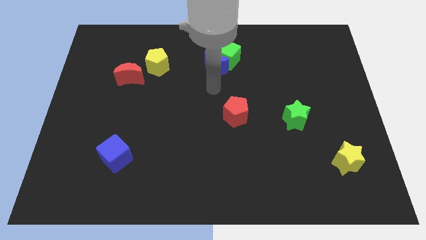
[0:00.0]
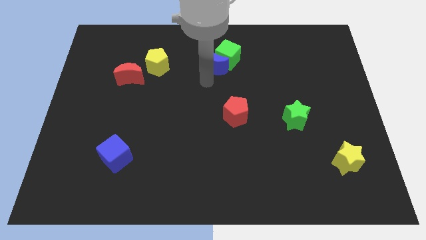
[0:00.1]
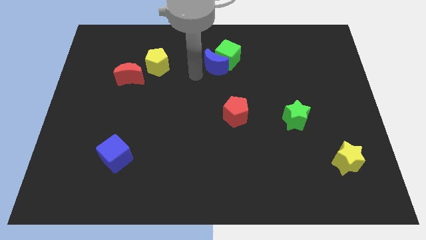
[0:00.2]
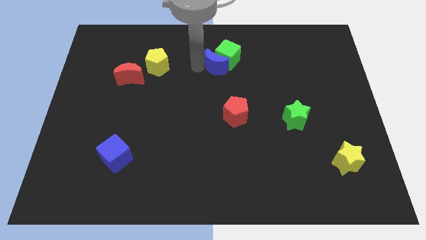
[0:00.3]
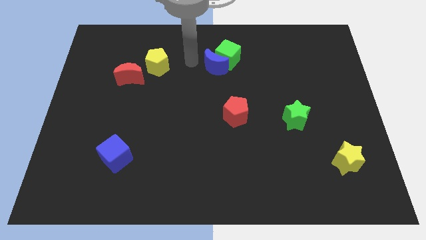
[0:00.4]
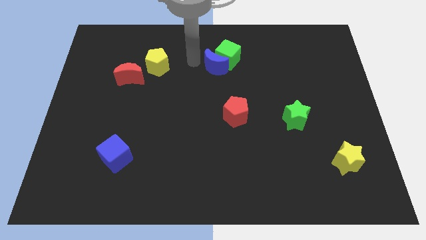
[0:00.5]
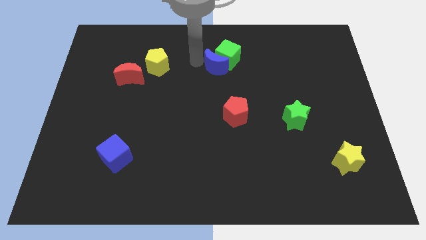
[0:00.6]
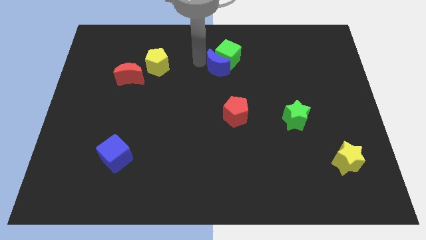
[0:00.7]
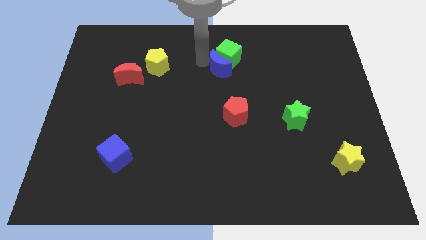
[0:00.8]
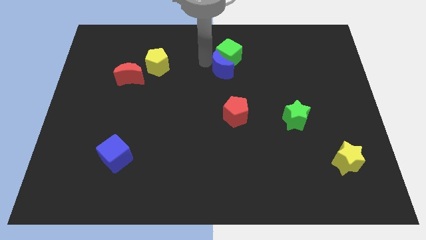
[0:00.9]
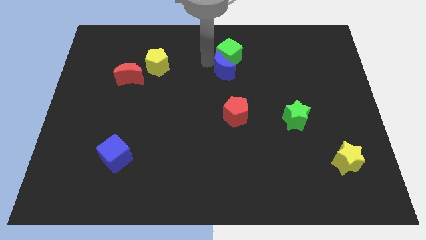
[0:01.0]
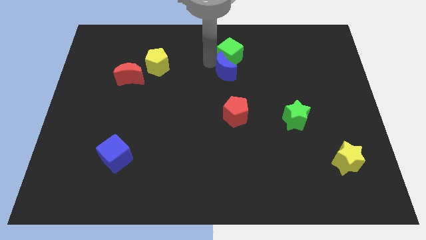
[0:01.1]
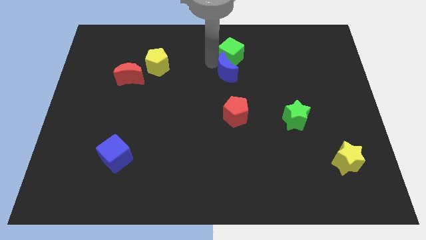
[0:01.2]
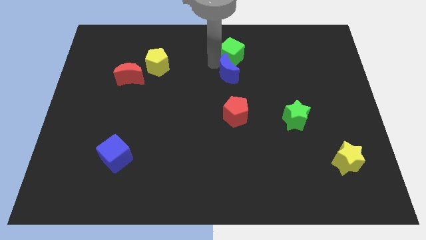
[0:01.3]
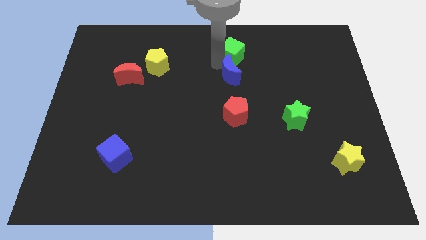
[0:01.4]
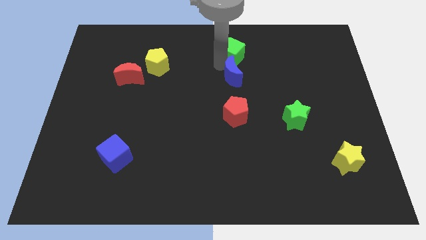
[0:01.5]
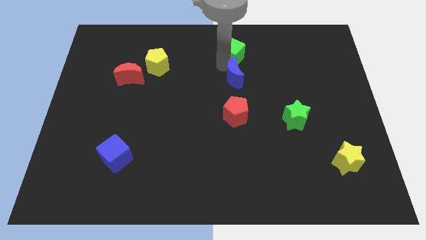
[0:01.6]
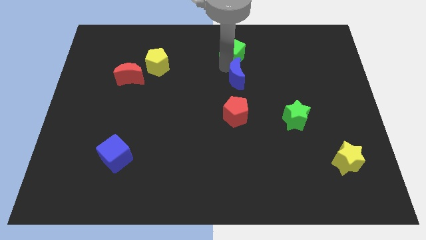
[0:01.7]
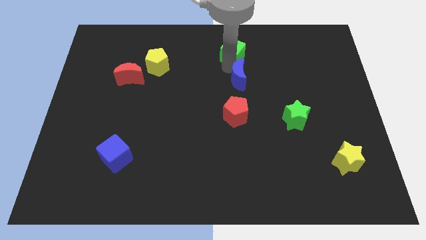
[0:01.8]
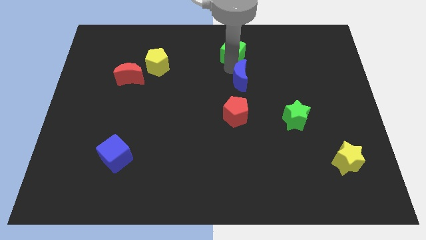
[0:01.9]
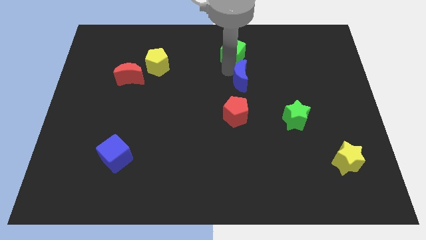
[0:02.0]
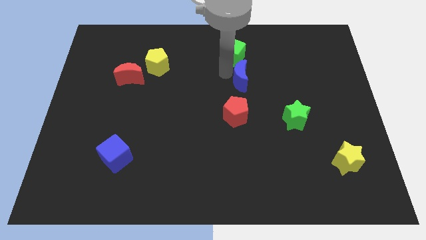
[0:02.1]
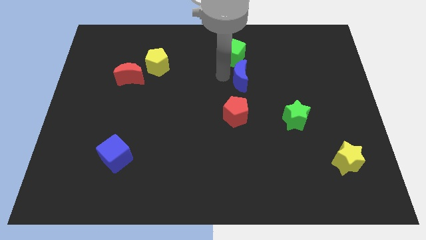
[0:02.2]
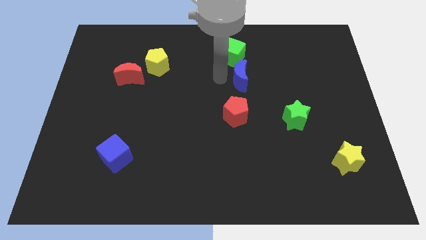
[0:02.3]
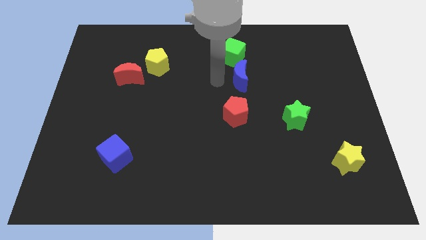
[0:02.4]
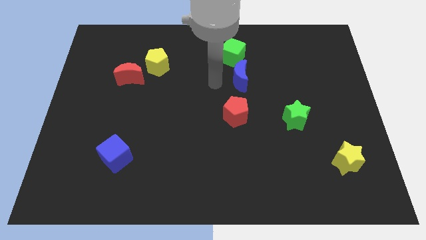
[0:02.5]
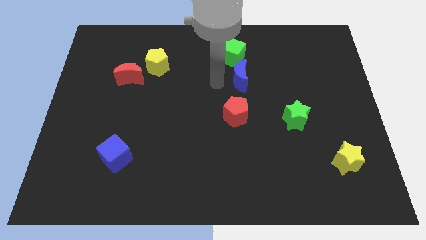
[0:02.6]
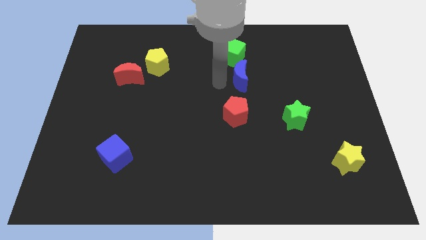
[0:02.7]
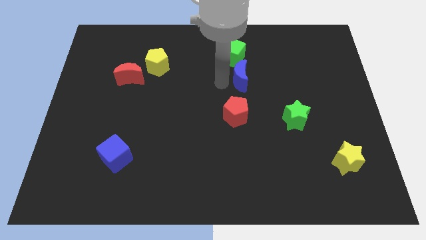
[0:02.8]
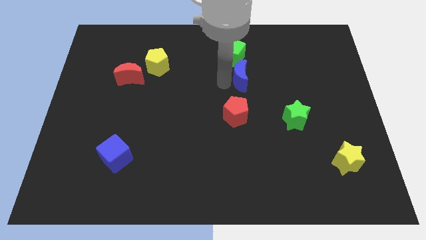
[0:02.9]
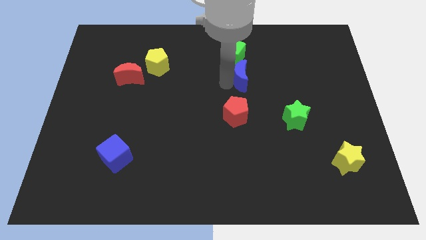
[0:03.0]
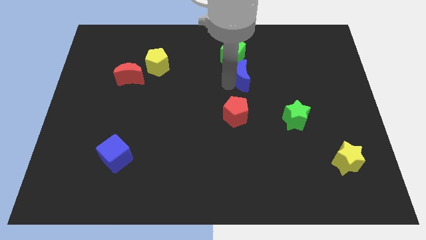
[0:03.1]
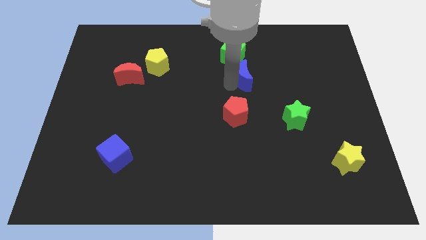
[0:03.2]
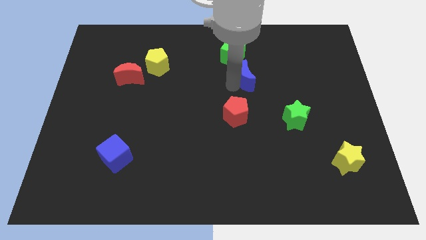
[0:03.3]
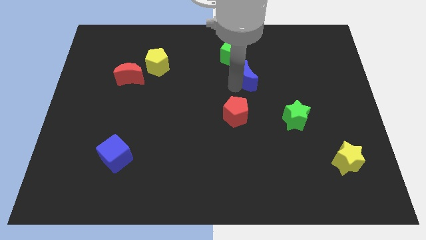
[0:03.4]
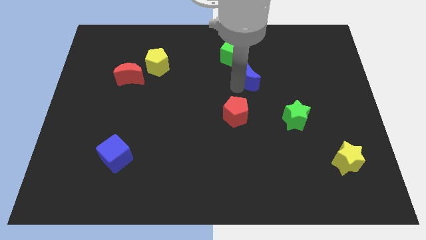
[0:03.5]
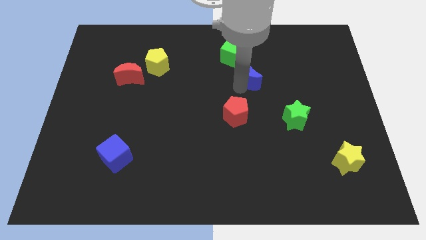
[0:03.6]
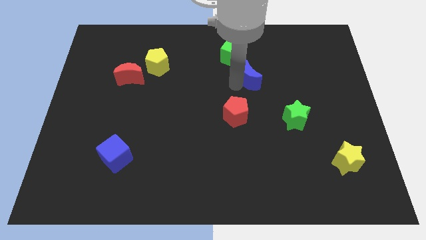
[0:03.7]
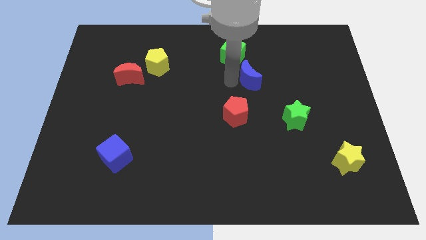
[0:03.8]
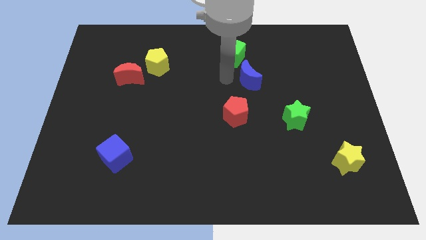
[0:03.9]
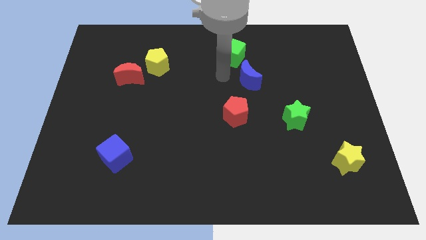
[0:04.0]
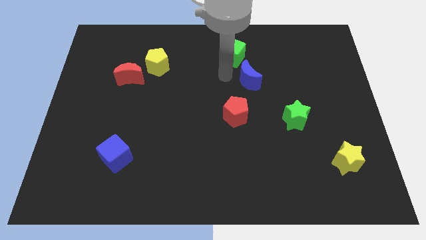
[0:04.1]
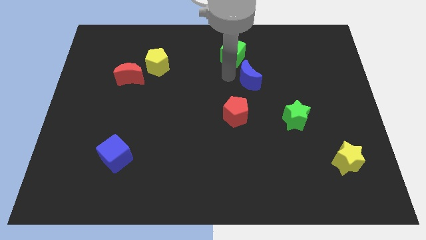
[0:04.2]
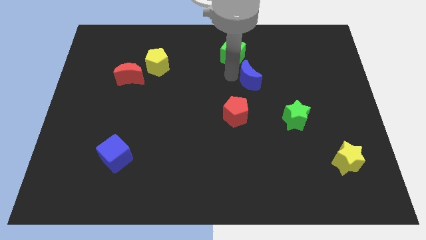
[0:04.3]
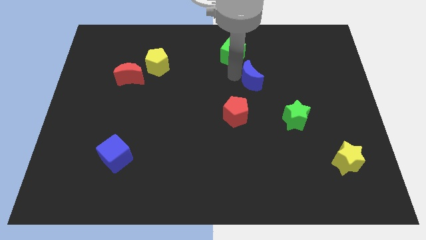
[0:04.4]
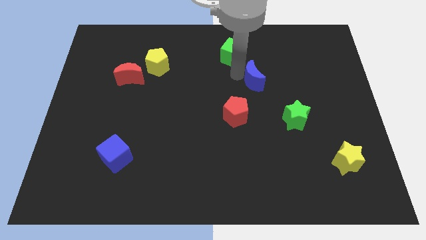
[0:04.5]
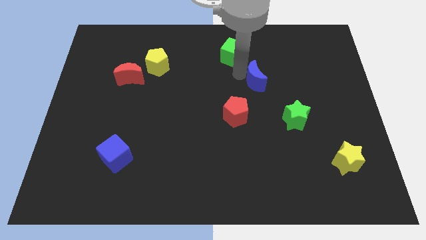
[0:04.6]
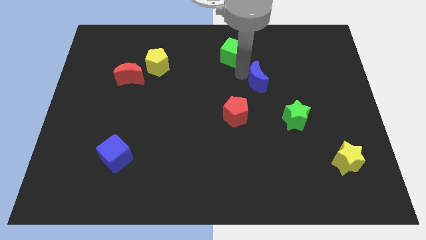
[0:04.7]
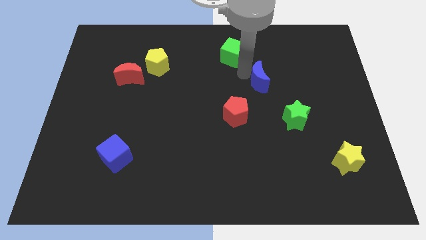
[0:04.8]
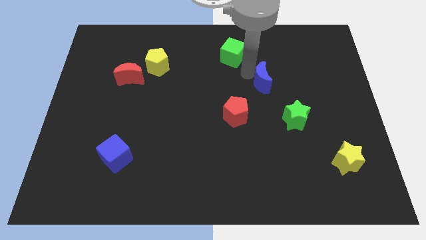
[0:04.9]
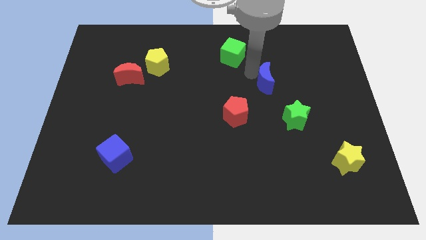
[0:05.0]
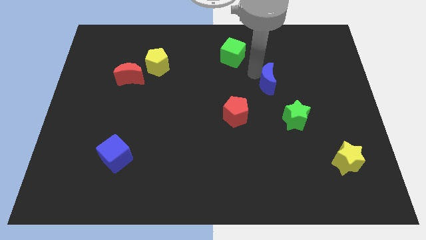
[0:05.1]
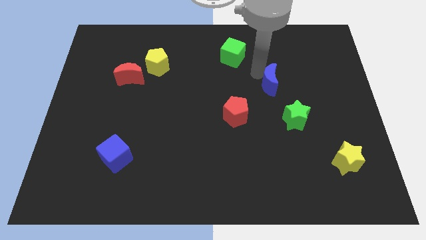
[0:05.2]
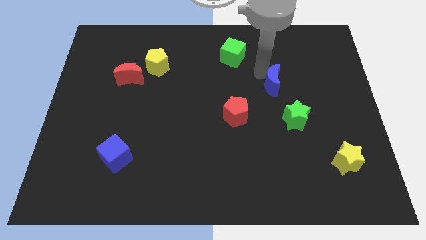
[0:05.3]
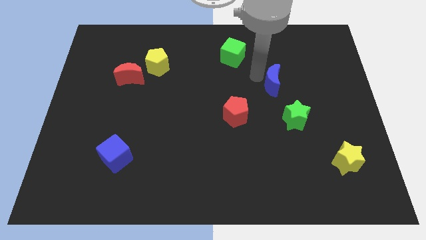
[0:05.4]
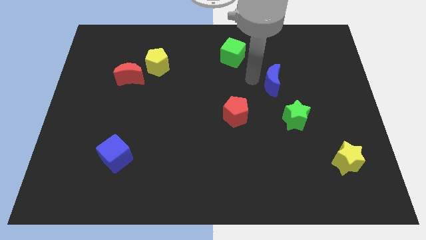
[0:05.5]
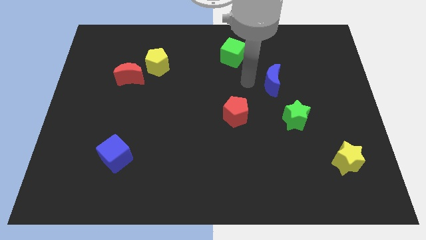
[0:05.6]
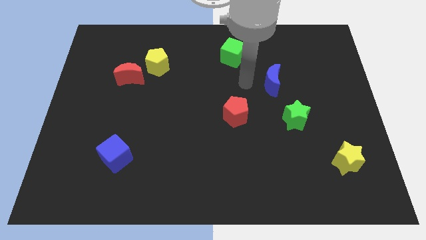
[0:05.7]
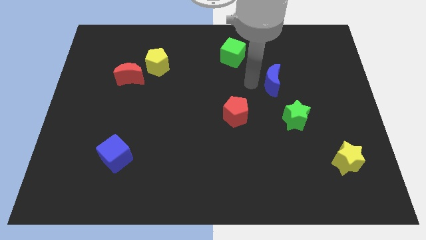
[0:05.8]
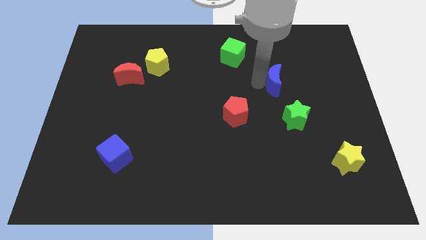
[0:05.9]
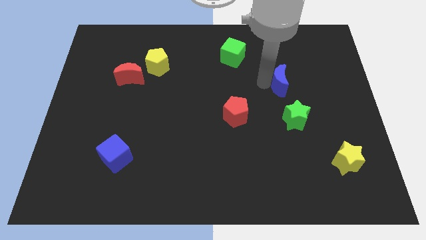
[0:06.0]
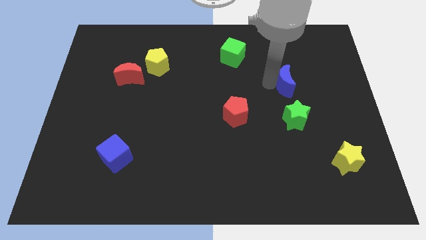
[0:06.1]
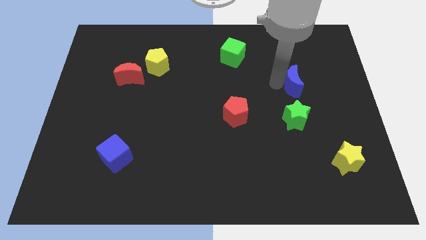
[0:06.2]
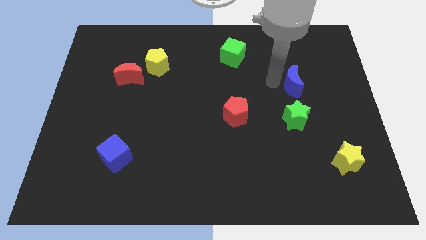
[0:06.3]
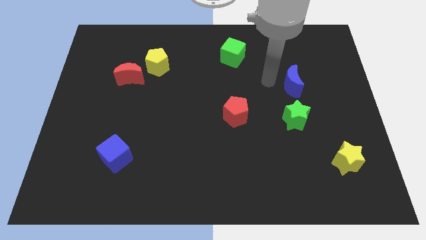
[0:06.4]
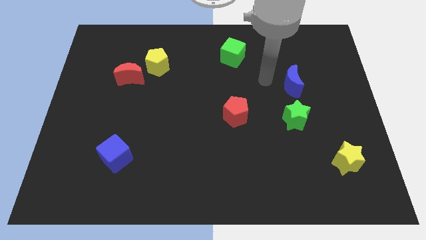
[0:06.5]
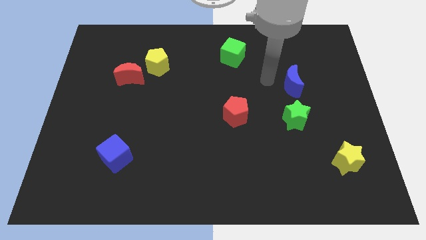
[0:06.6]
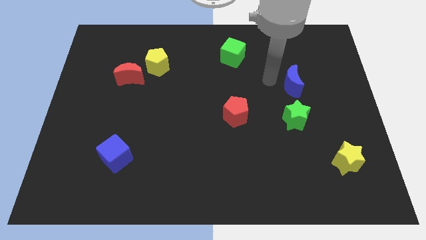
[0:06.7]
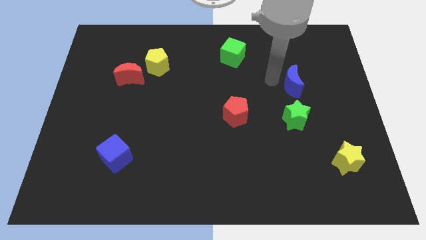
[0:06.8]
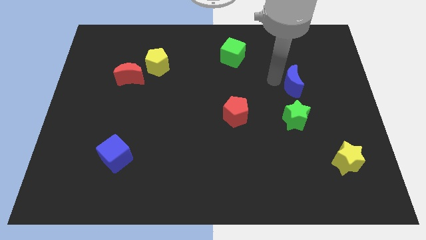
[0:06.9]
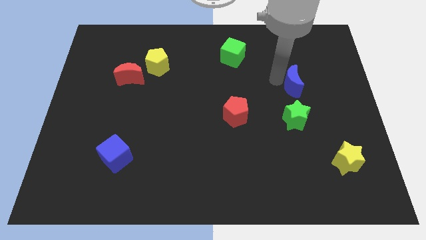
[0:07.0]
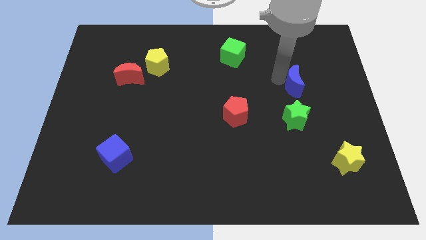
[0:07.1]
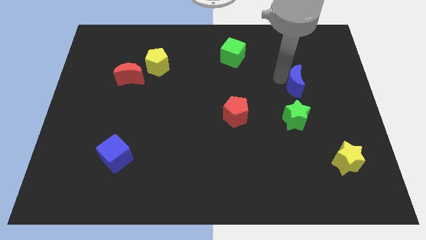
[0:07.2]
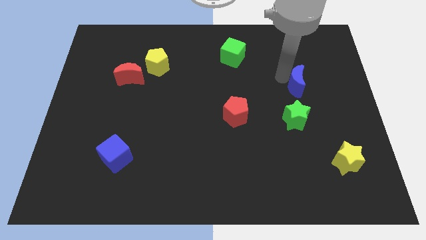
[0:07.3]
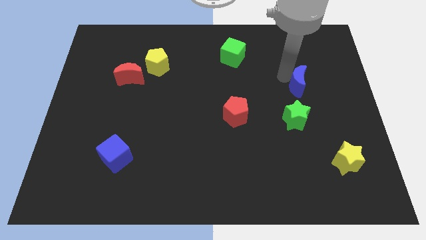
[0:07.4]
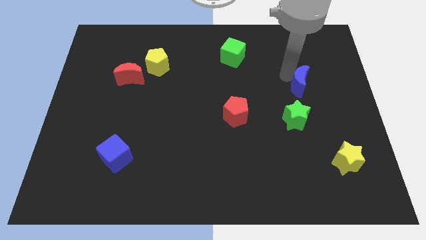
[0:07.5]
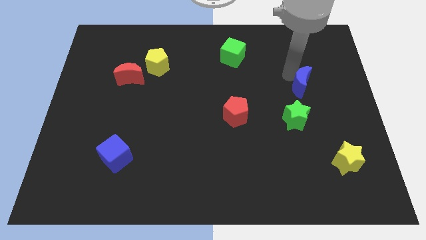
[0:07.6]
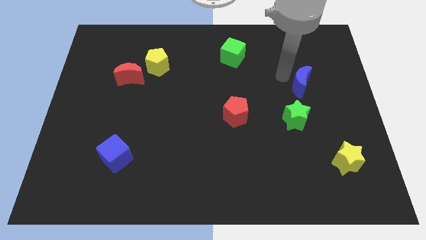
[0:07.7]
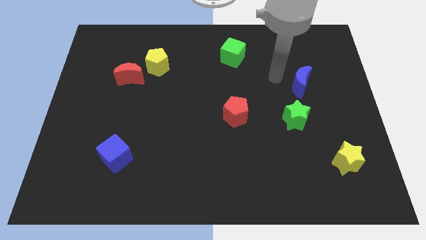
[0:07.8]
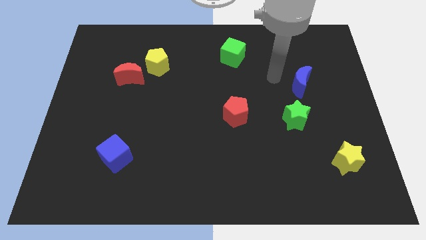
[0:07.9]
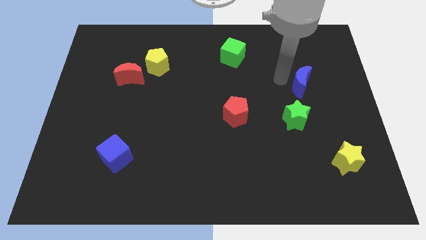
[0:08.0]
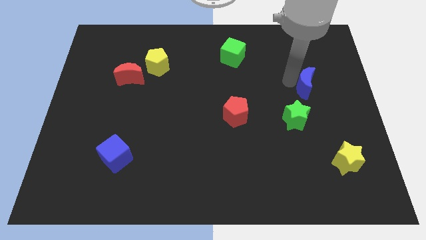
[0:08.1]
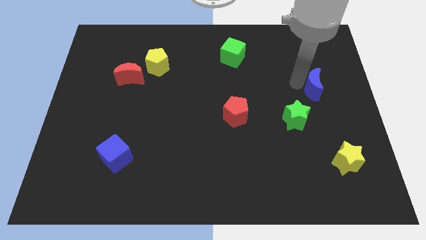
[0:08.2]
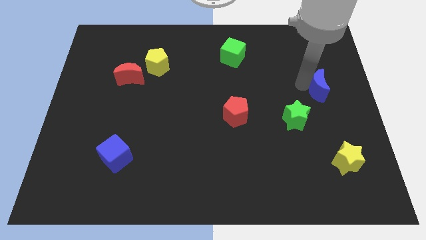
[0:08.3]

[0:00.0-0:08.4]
push the blue moon to the right side
